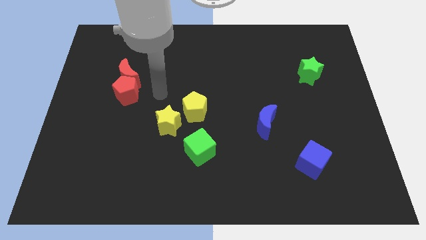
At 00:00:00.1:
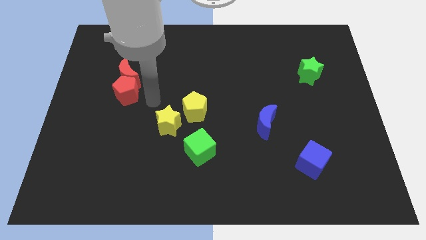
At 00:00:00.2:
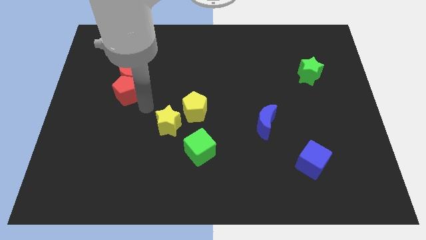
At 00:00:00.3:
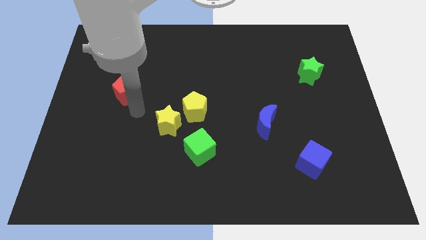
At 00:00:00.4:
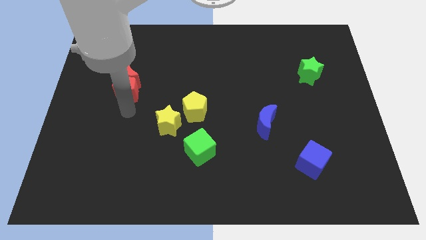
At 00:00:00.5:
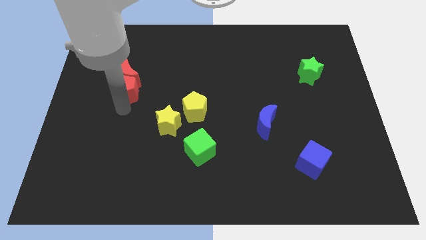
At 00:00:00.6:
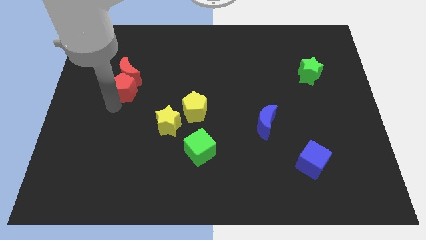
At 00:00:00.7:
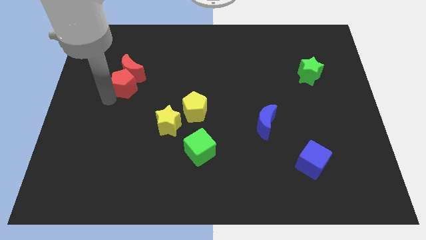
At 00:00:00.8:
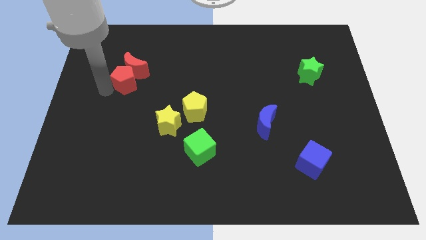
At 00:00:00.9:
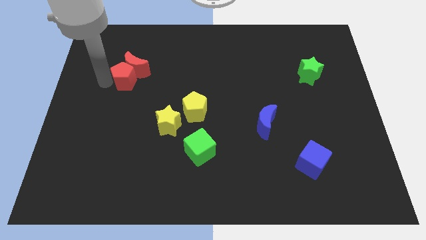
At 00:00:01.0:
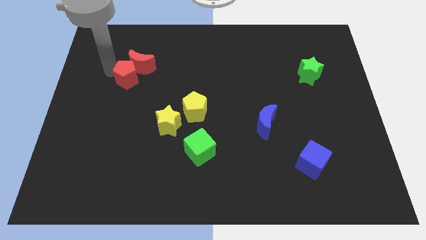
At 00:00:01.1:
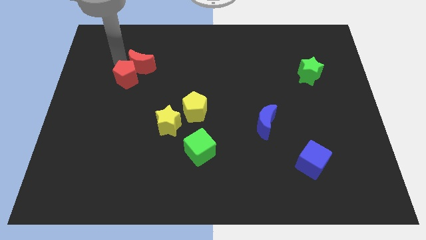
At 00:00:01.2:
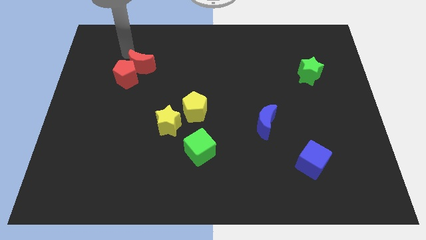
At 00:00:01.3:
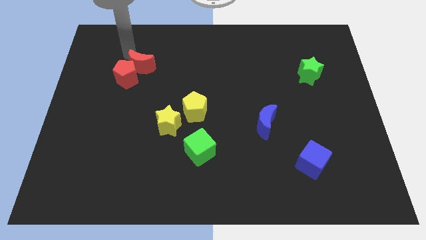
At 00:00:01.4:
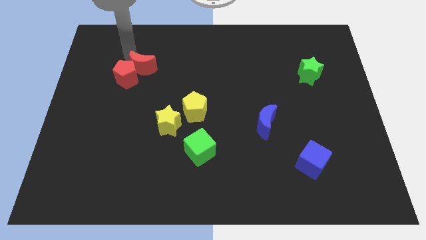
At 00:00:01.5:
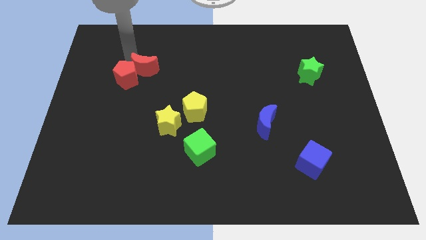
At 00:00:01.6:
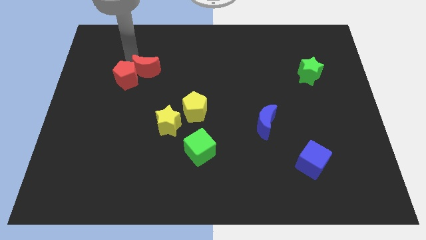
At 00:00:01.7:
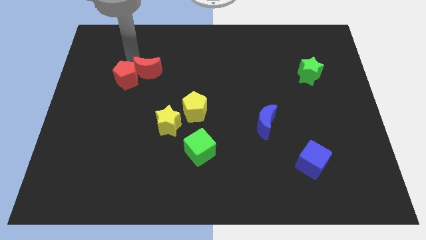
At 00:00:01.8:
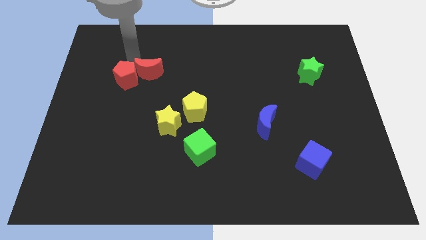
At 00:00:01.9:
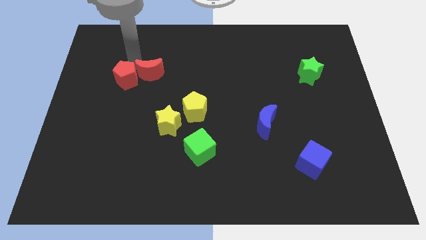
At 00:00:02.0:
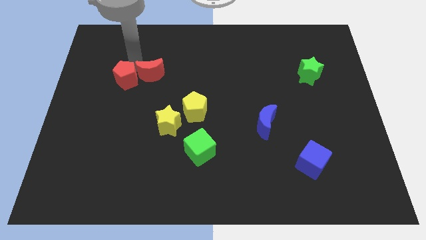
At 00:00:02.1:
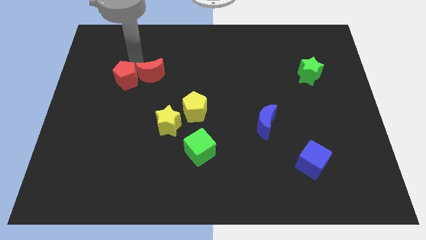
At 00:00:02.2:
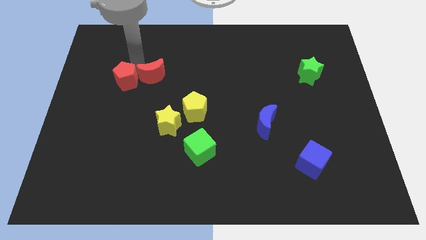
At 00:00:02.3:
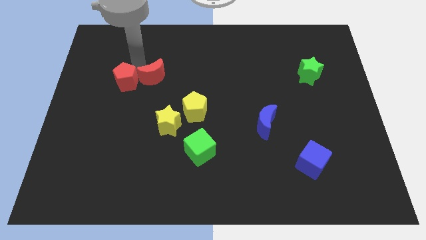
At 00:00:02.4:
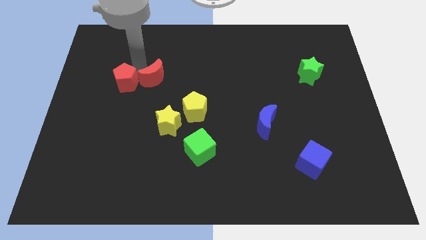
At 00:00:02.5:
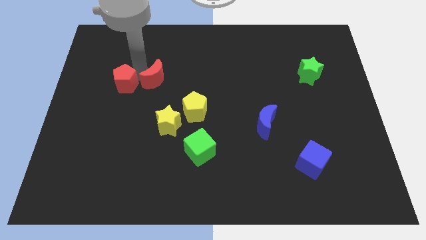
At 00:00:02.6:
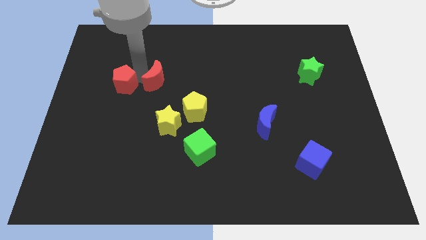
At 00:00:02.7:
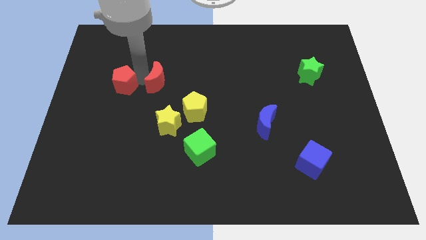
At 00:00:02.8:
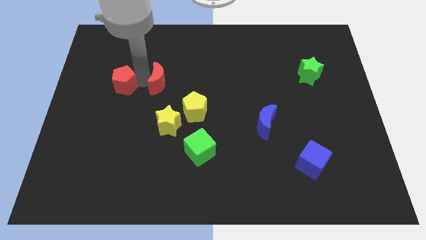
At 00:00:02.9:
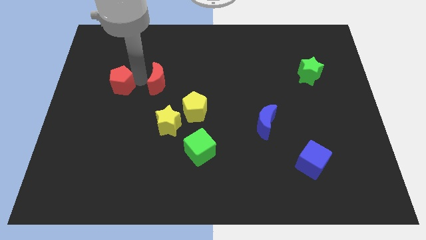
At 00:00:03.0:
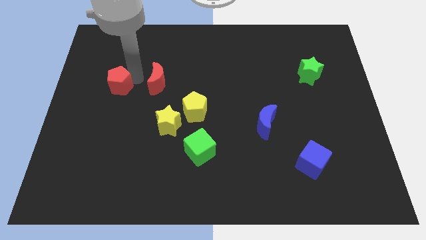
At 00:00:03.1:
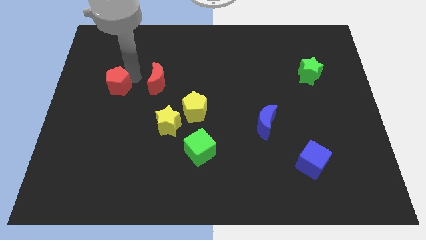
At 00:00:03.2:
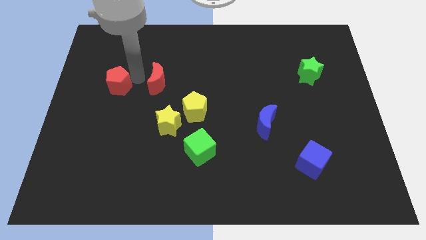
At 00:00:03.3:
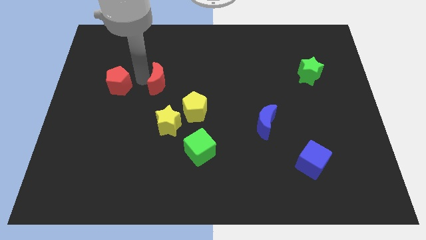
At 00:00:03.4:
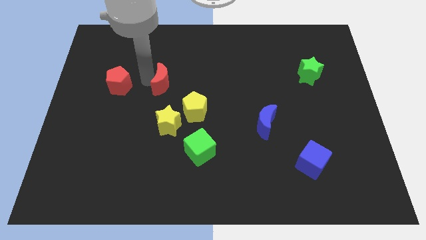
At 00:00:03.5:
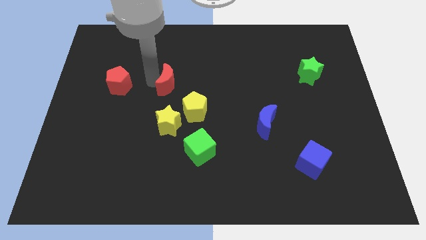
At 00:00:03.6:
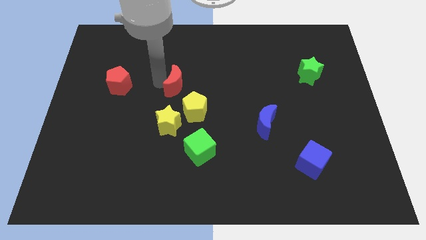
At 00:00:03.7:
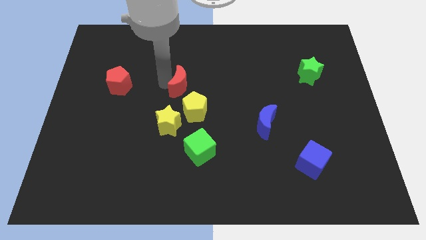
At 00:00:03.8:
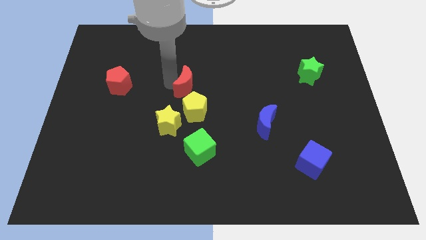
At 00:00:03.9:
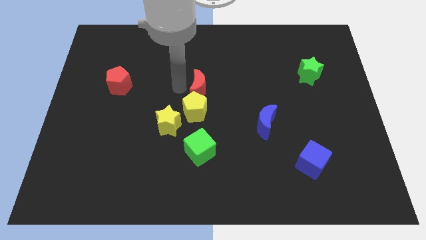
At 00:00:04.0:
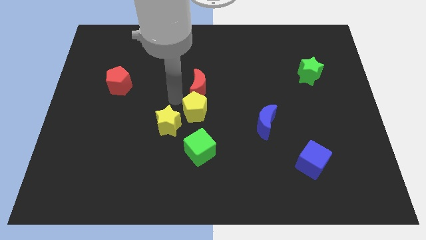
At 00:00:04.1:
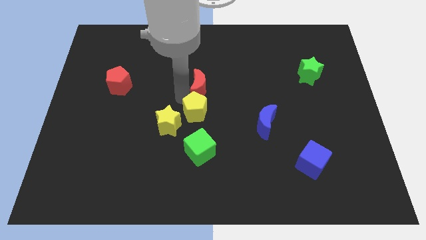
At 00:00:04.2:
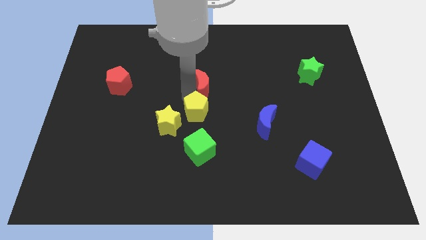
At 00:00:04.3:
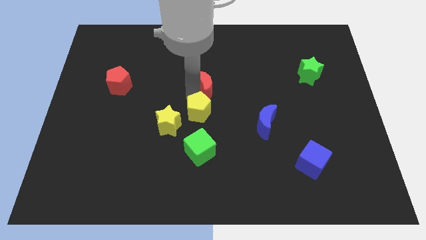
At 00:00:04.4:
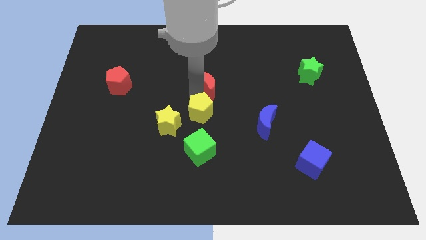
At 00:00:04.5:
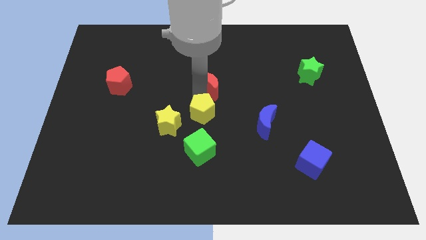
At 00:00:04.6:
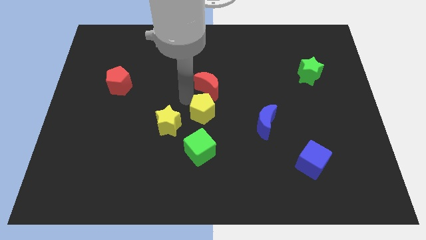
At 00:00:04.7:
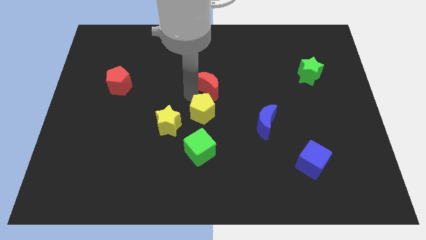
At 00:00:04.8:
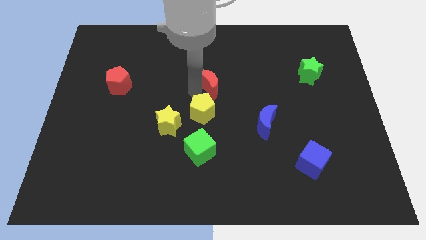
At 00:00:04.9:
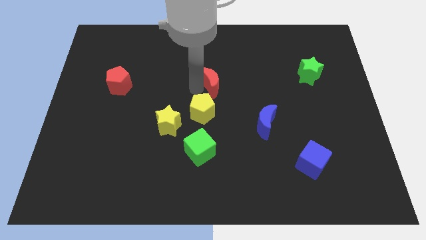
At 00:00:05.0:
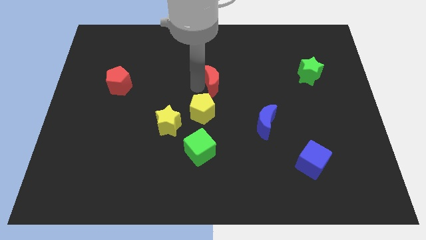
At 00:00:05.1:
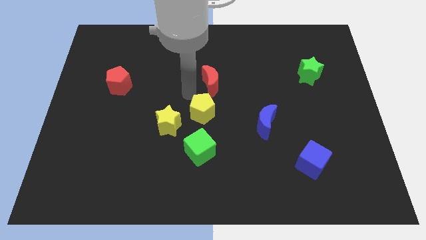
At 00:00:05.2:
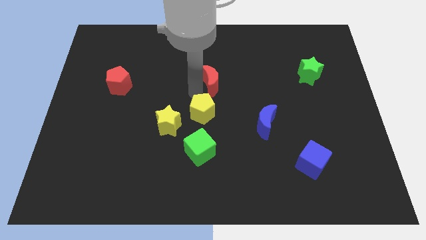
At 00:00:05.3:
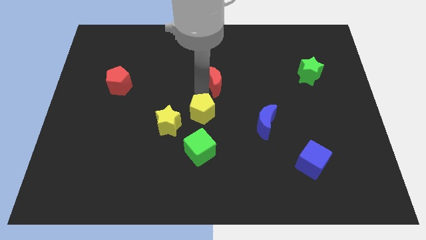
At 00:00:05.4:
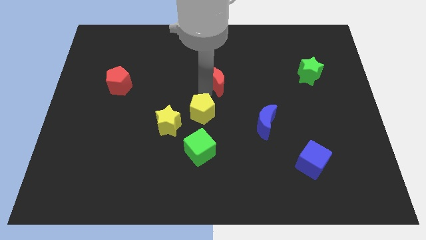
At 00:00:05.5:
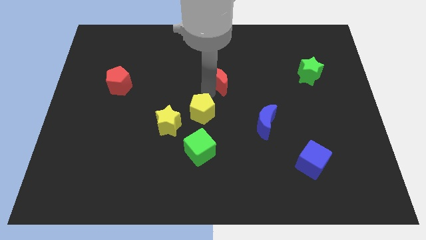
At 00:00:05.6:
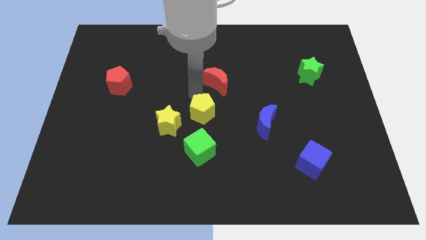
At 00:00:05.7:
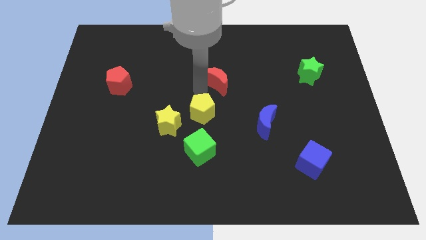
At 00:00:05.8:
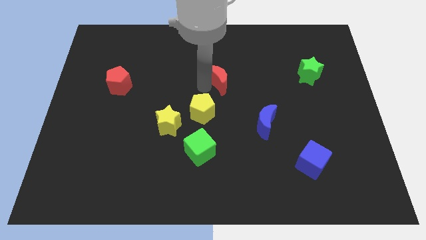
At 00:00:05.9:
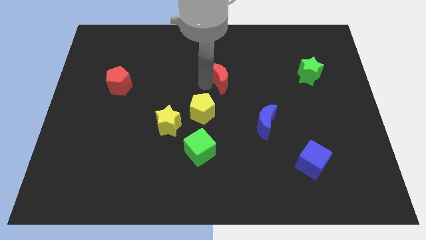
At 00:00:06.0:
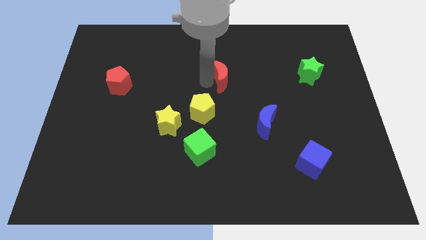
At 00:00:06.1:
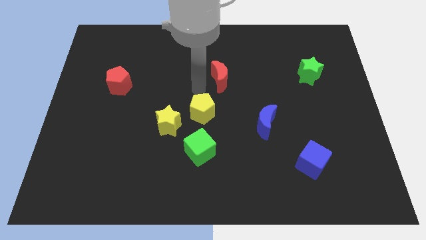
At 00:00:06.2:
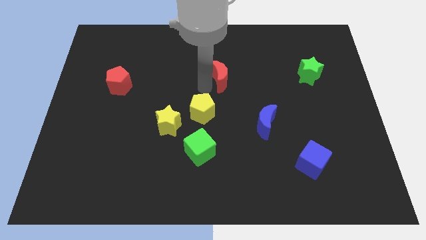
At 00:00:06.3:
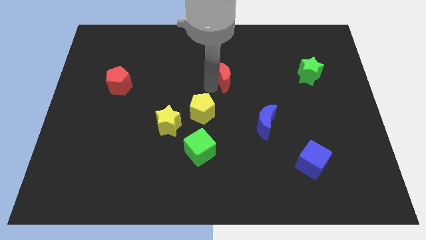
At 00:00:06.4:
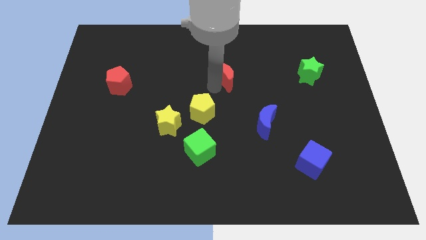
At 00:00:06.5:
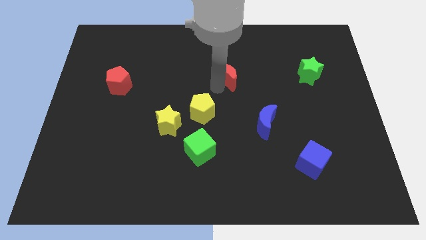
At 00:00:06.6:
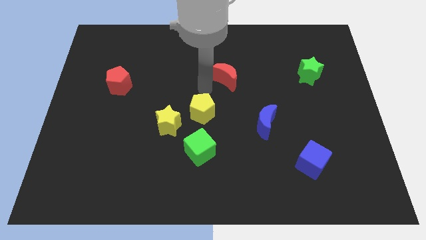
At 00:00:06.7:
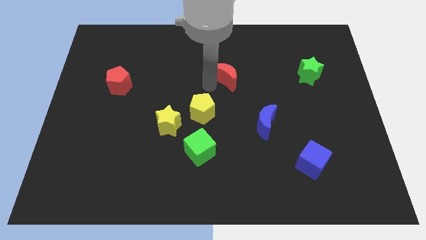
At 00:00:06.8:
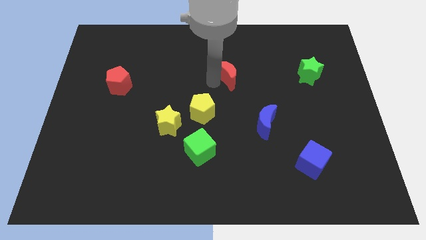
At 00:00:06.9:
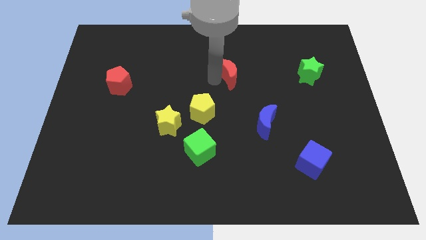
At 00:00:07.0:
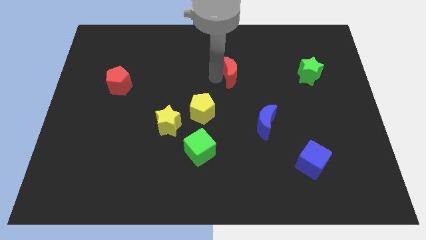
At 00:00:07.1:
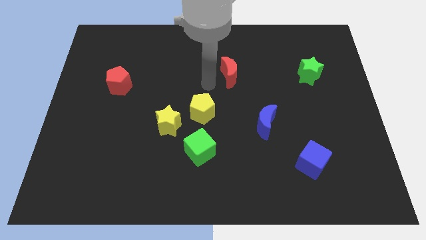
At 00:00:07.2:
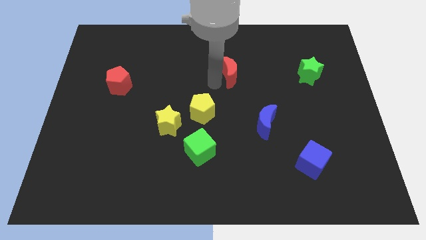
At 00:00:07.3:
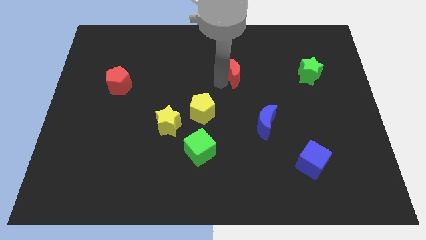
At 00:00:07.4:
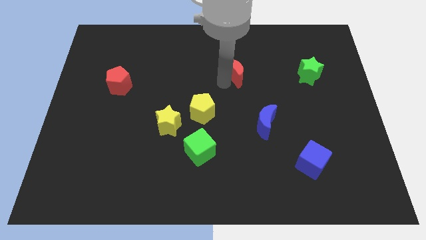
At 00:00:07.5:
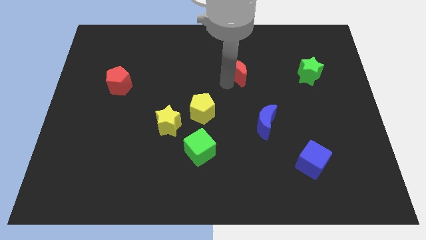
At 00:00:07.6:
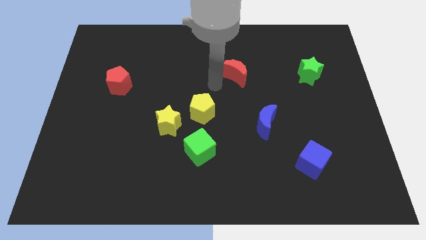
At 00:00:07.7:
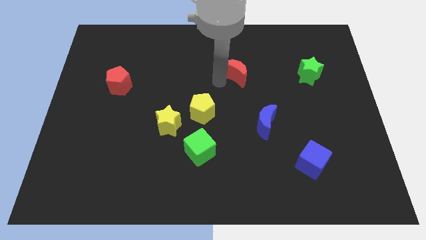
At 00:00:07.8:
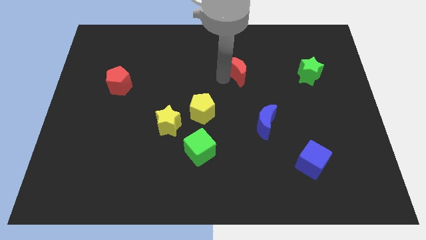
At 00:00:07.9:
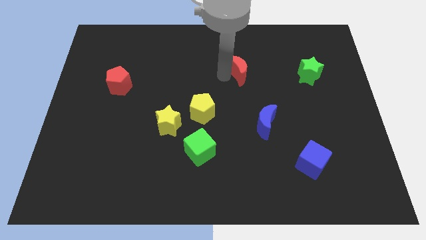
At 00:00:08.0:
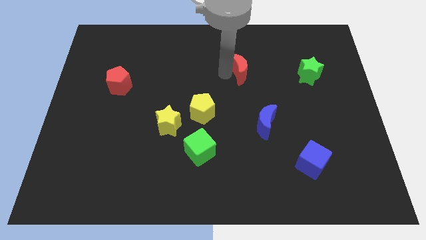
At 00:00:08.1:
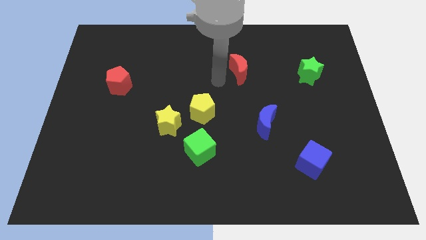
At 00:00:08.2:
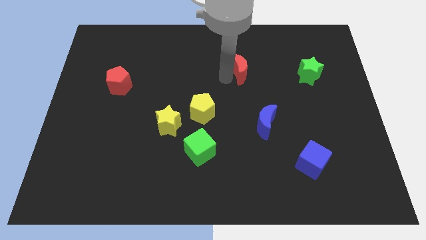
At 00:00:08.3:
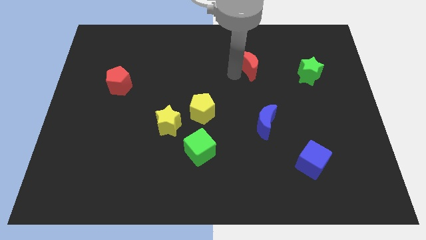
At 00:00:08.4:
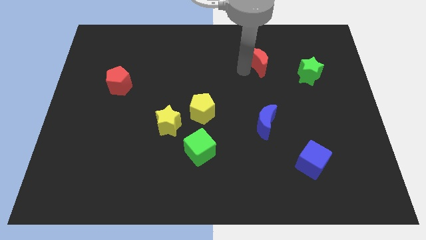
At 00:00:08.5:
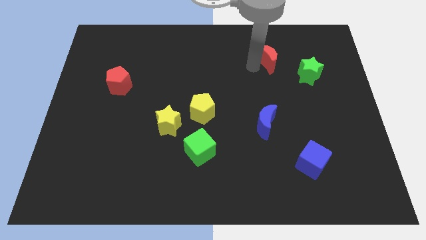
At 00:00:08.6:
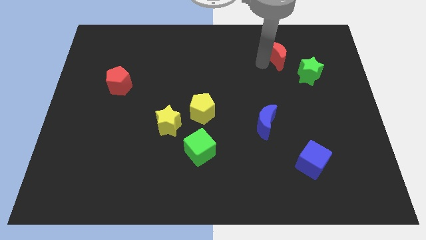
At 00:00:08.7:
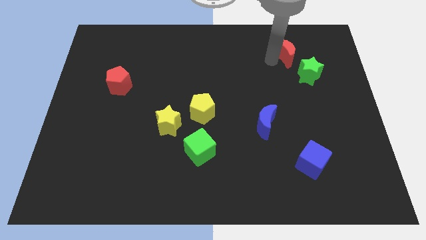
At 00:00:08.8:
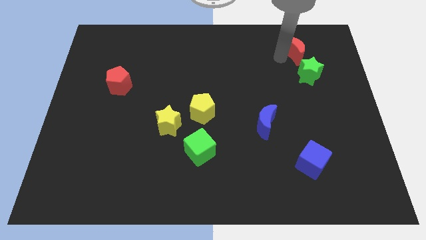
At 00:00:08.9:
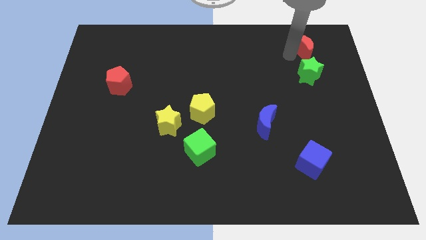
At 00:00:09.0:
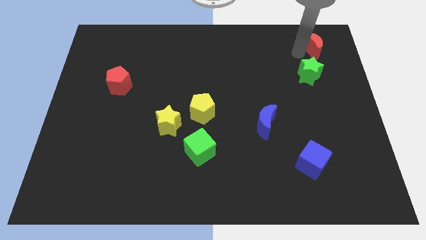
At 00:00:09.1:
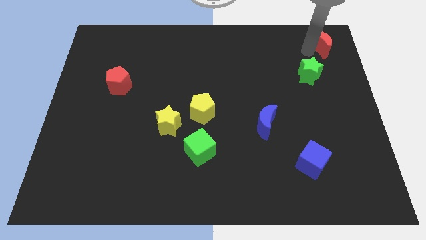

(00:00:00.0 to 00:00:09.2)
put the red moon to the top right of the board
